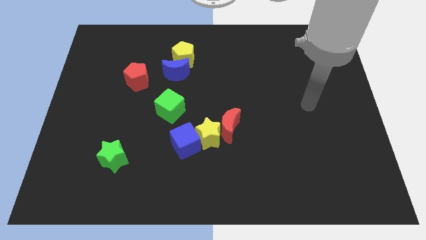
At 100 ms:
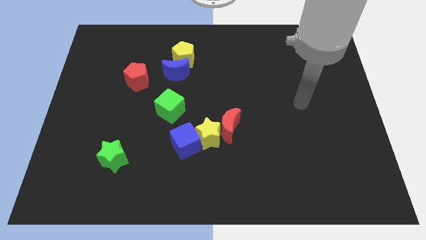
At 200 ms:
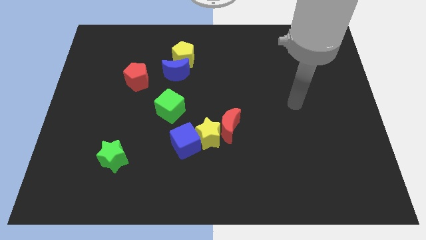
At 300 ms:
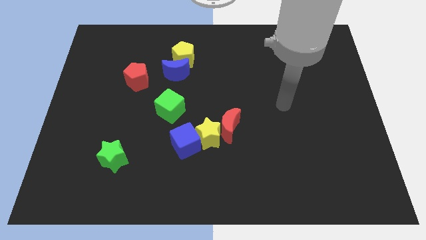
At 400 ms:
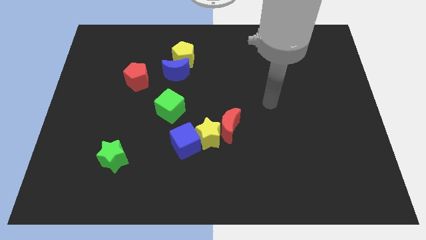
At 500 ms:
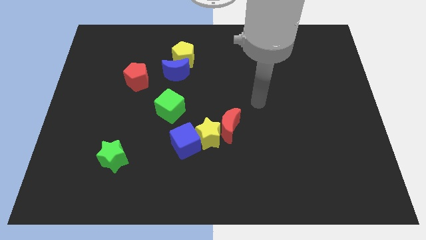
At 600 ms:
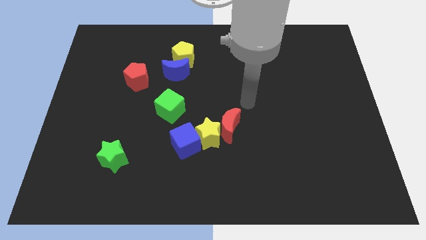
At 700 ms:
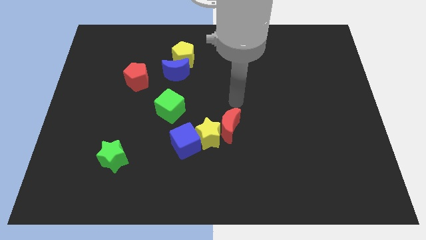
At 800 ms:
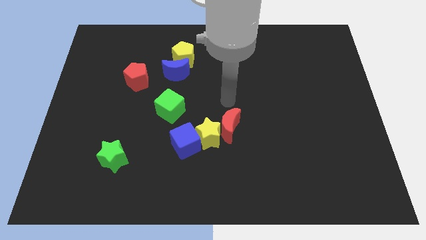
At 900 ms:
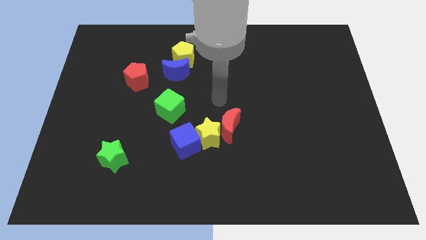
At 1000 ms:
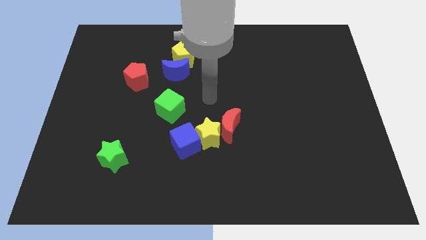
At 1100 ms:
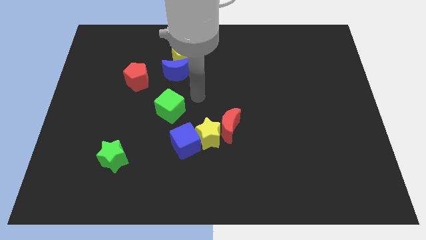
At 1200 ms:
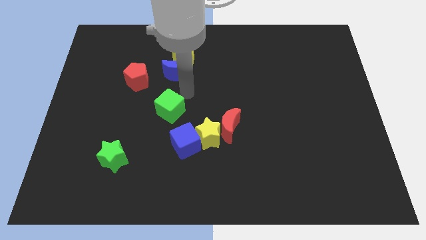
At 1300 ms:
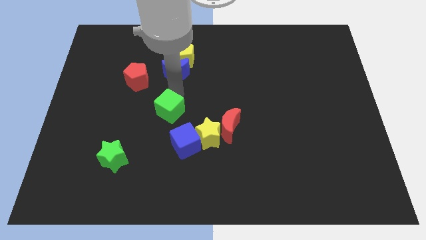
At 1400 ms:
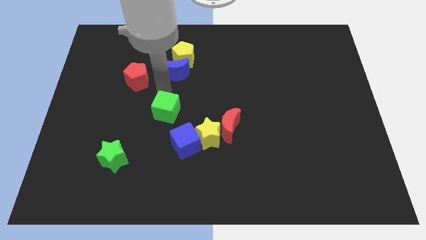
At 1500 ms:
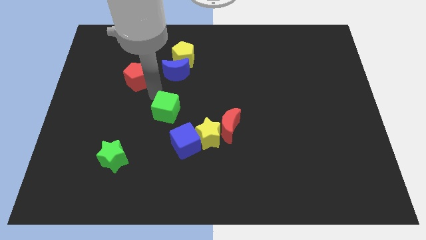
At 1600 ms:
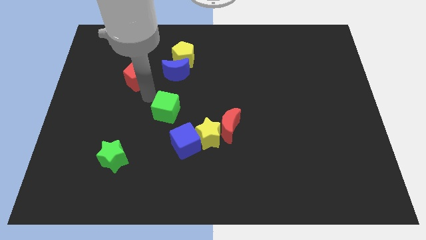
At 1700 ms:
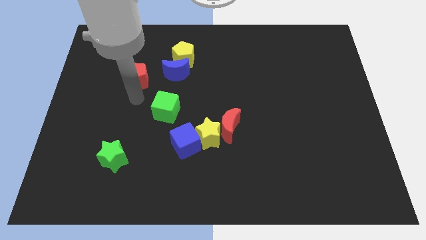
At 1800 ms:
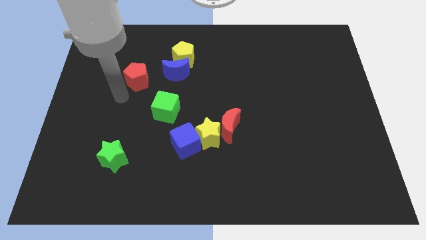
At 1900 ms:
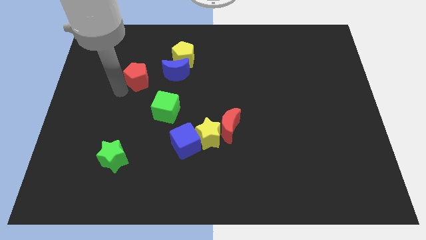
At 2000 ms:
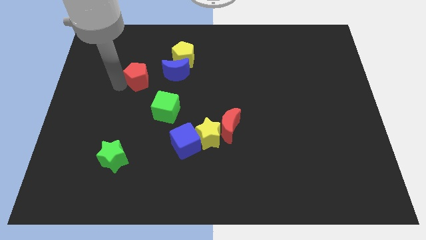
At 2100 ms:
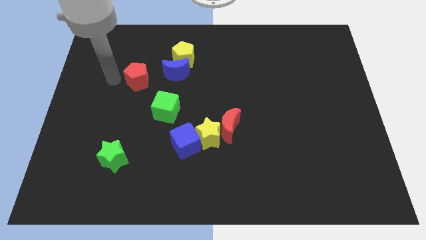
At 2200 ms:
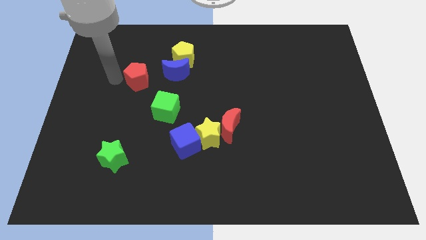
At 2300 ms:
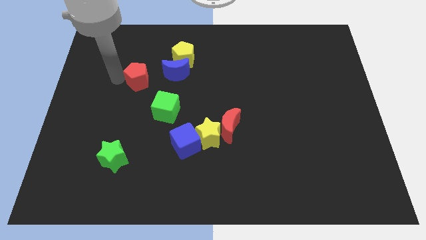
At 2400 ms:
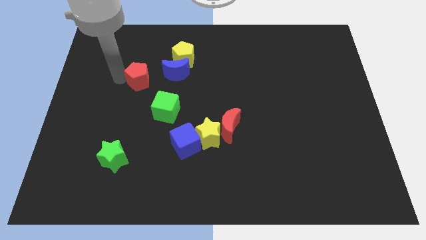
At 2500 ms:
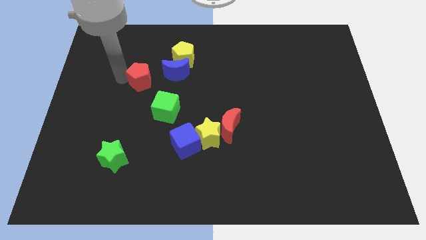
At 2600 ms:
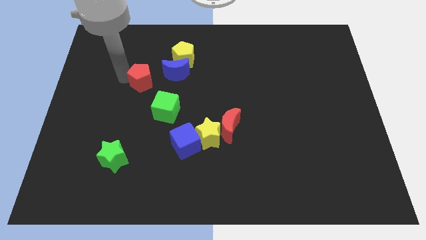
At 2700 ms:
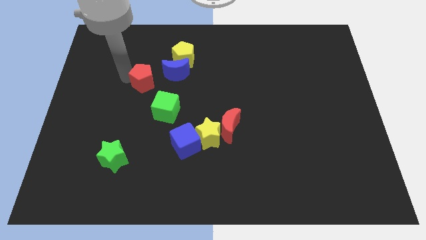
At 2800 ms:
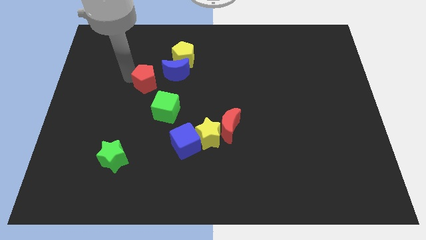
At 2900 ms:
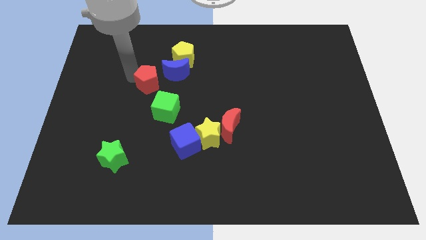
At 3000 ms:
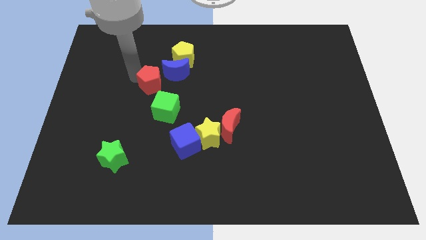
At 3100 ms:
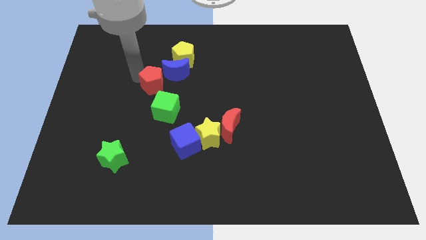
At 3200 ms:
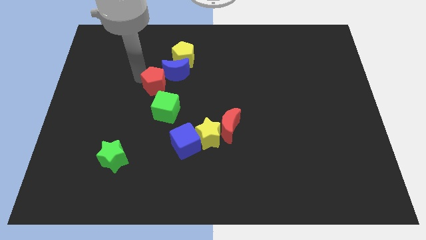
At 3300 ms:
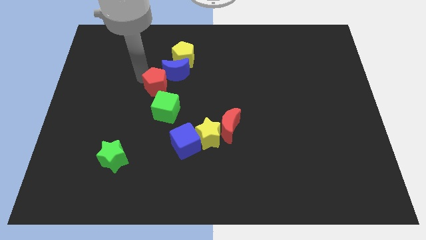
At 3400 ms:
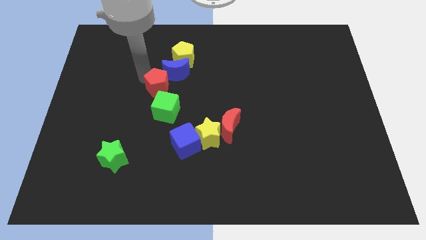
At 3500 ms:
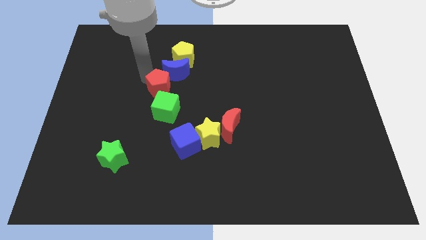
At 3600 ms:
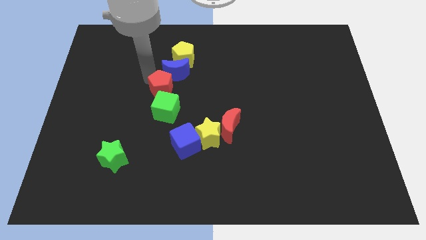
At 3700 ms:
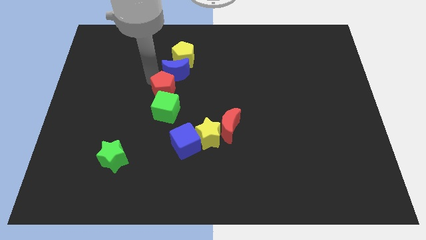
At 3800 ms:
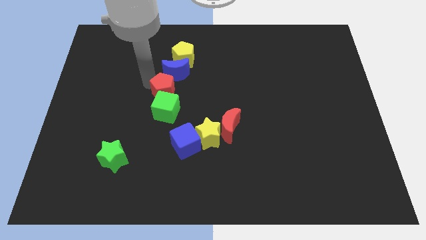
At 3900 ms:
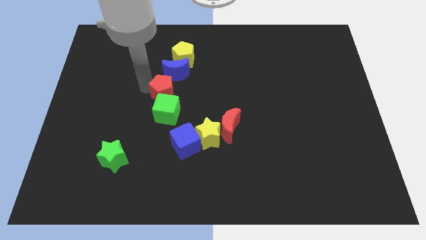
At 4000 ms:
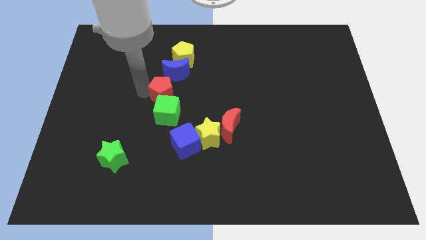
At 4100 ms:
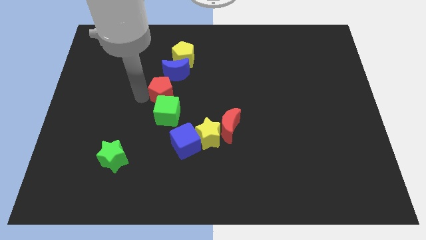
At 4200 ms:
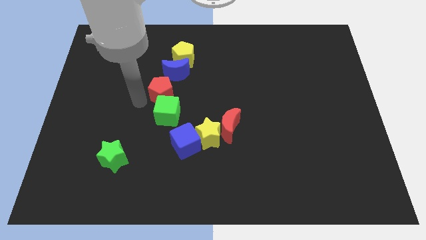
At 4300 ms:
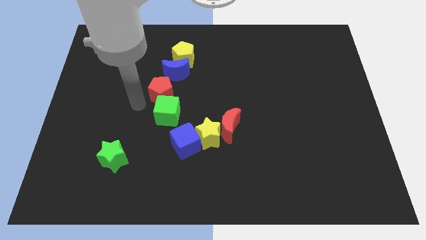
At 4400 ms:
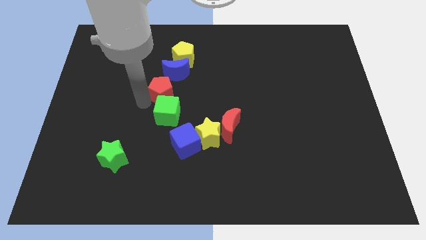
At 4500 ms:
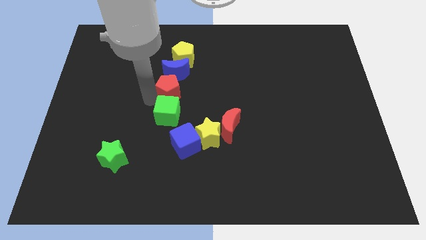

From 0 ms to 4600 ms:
push the red pentagon a little to the right

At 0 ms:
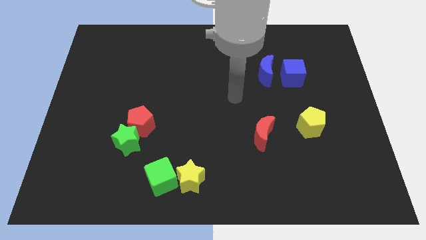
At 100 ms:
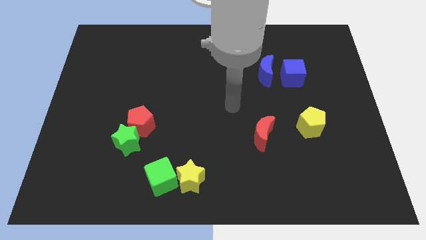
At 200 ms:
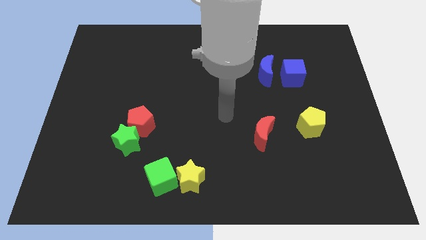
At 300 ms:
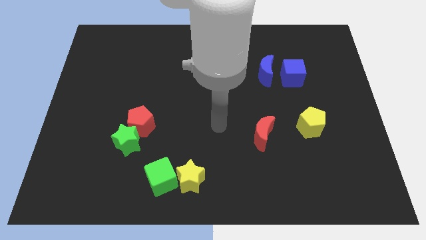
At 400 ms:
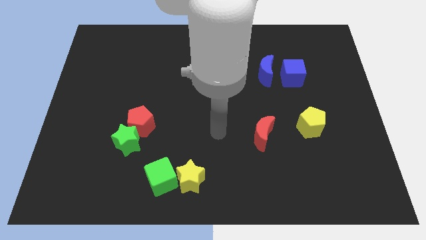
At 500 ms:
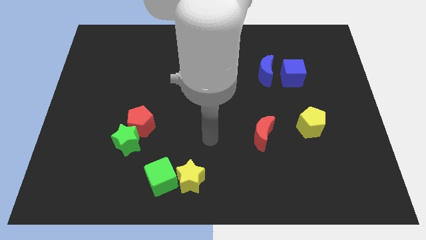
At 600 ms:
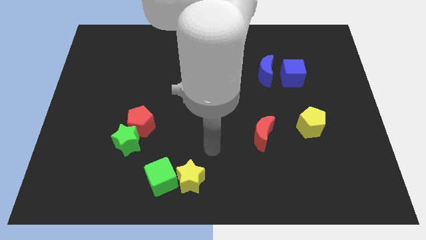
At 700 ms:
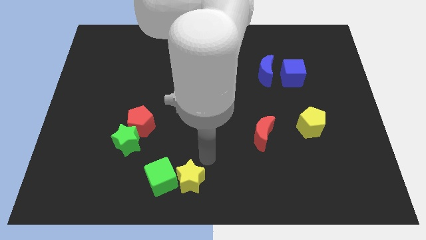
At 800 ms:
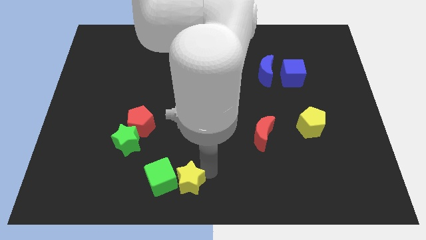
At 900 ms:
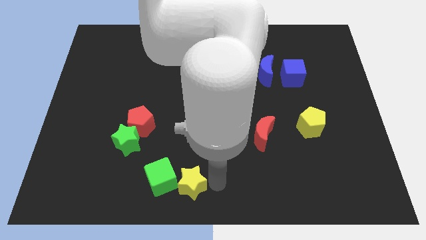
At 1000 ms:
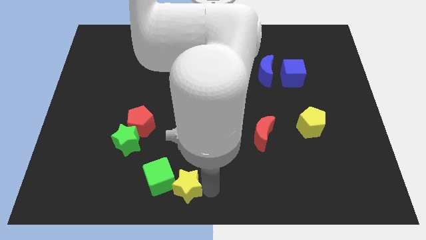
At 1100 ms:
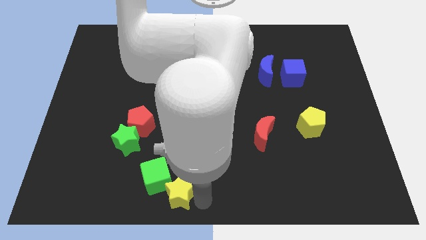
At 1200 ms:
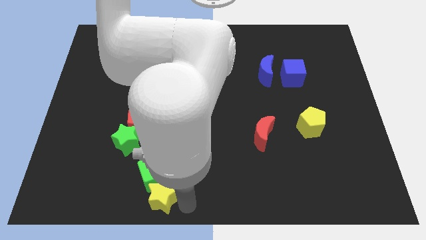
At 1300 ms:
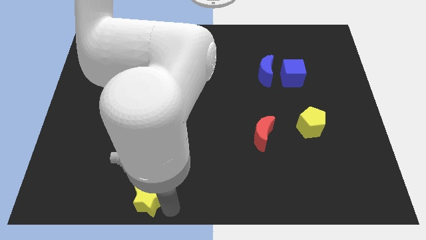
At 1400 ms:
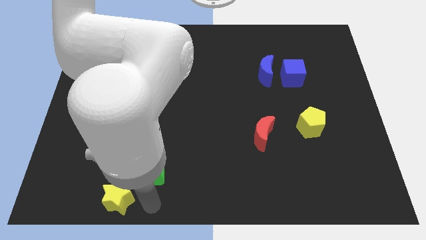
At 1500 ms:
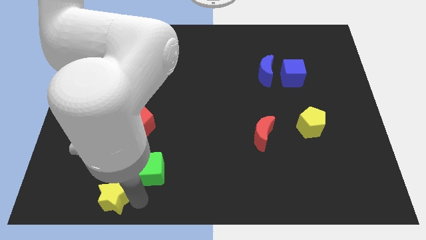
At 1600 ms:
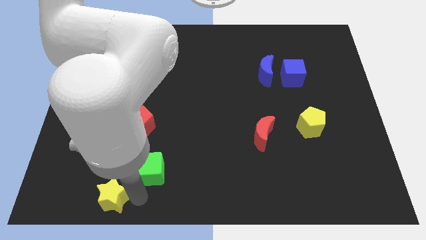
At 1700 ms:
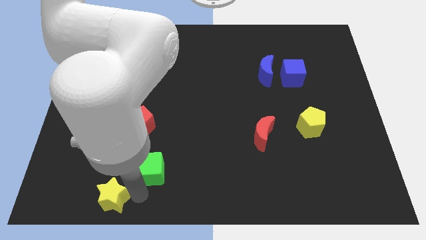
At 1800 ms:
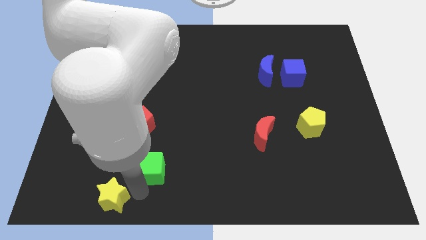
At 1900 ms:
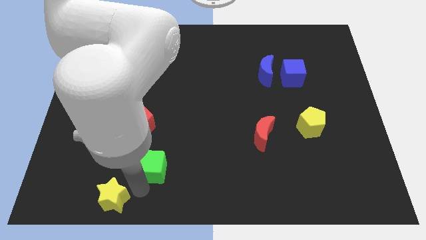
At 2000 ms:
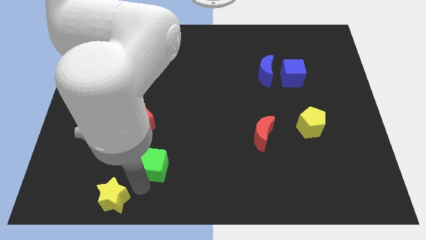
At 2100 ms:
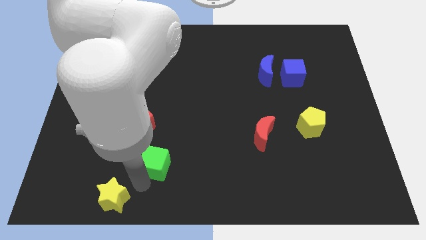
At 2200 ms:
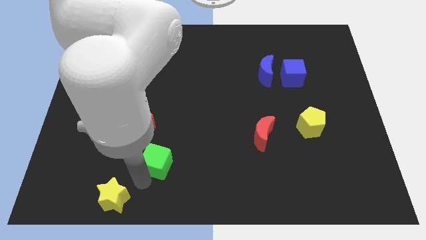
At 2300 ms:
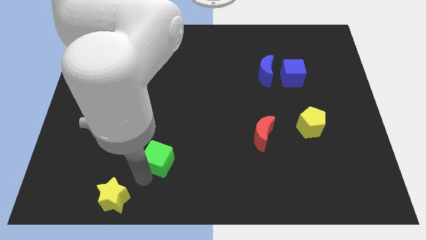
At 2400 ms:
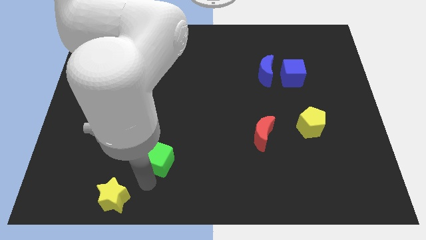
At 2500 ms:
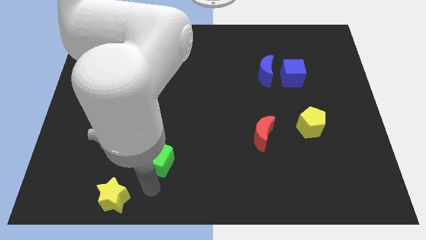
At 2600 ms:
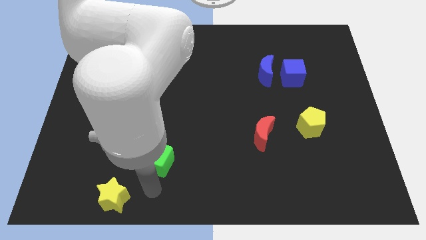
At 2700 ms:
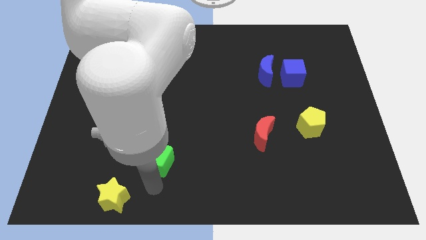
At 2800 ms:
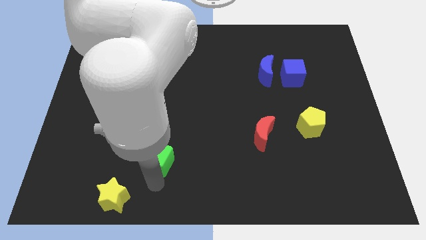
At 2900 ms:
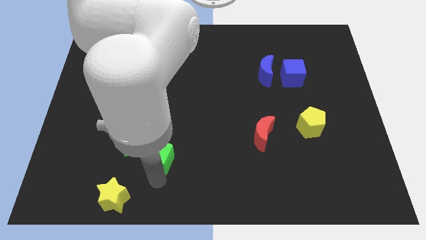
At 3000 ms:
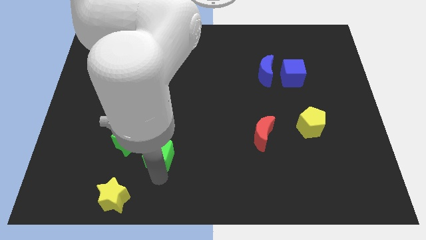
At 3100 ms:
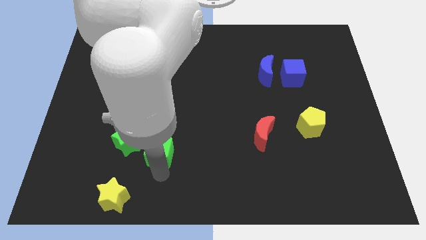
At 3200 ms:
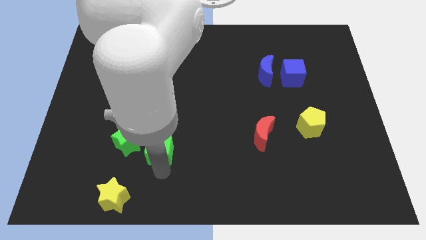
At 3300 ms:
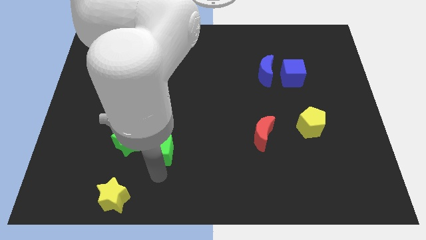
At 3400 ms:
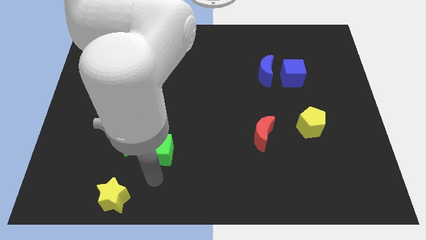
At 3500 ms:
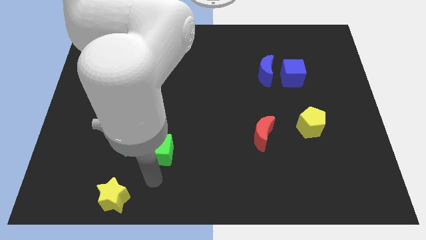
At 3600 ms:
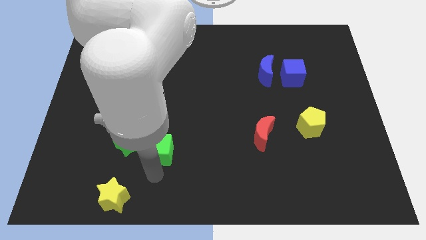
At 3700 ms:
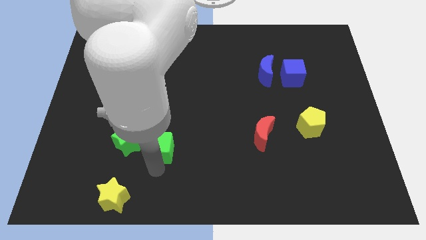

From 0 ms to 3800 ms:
move the green cube a little up
